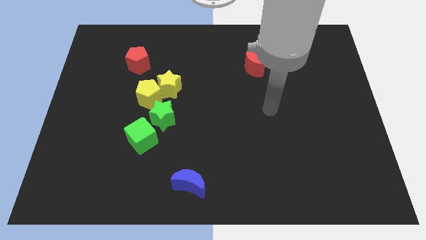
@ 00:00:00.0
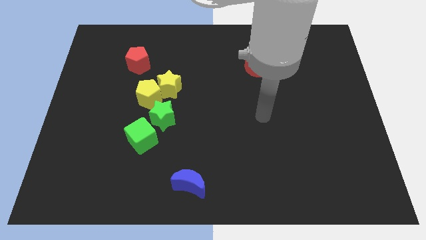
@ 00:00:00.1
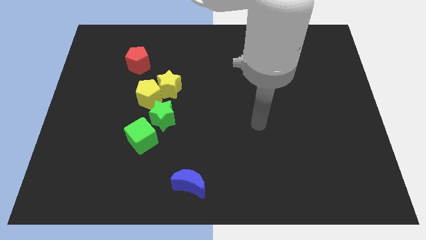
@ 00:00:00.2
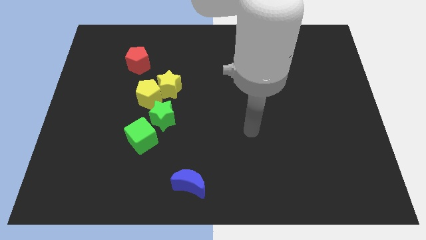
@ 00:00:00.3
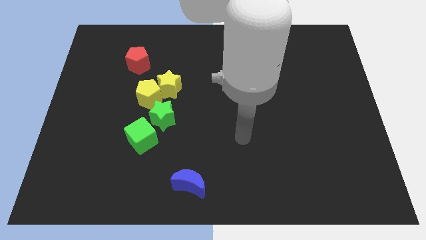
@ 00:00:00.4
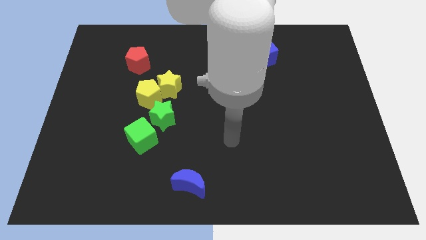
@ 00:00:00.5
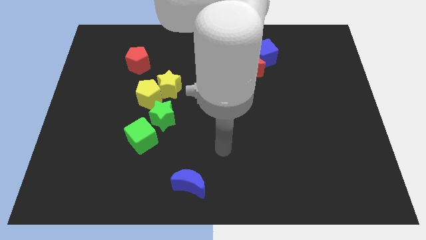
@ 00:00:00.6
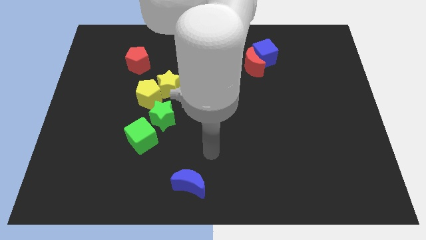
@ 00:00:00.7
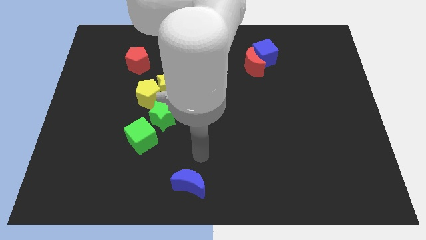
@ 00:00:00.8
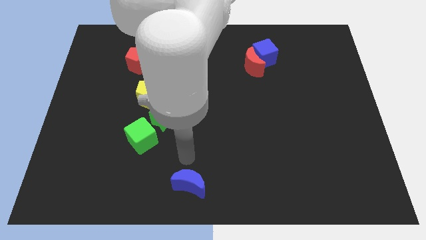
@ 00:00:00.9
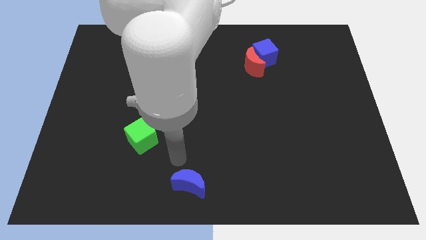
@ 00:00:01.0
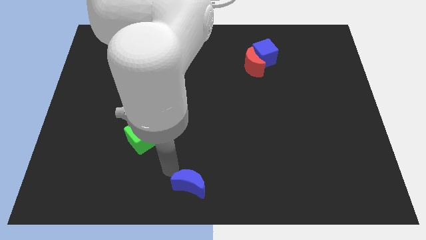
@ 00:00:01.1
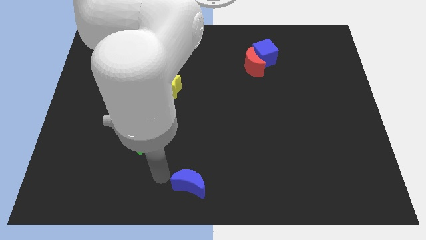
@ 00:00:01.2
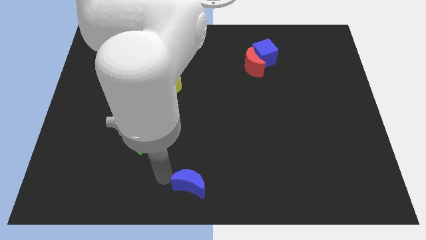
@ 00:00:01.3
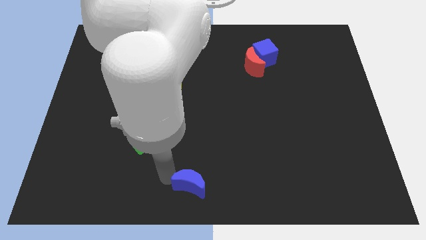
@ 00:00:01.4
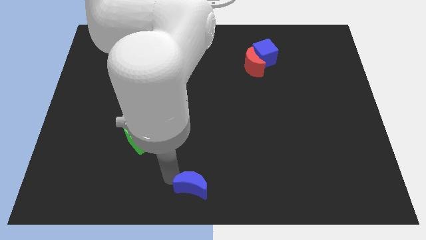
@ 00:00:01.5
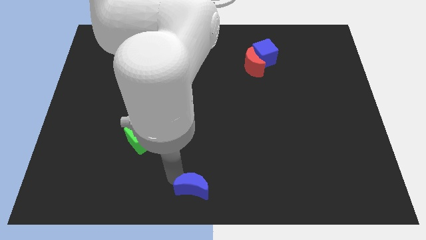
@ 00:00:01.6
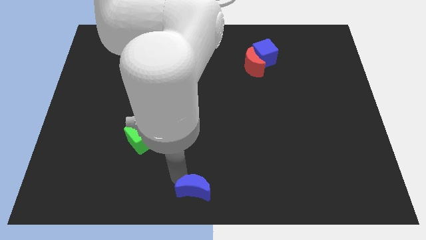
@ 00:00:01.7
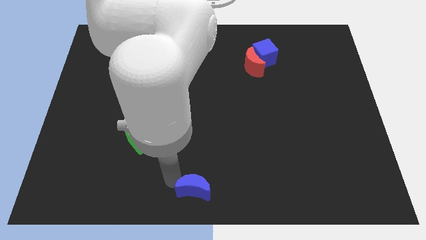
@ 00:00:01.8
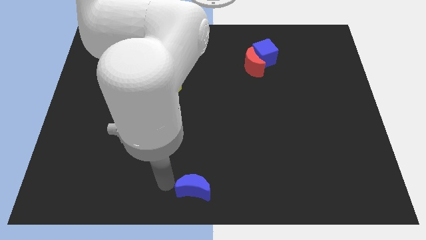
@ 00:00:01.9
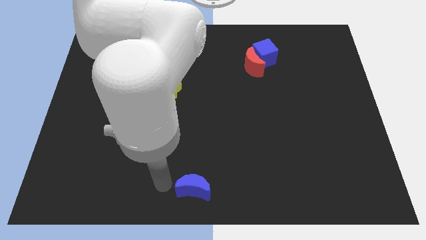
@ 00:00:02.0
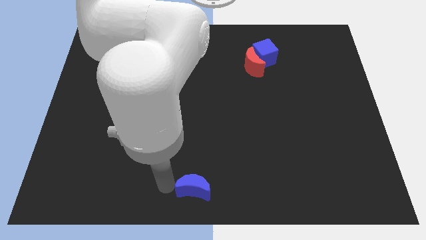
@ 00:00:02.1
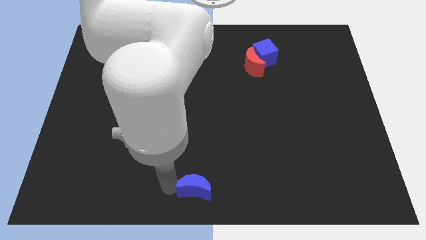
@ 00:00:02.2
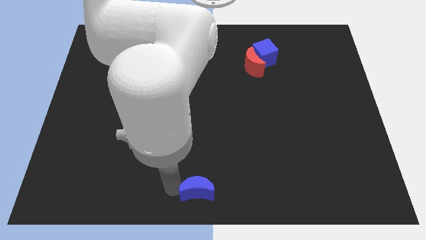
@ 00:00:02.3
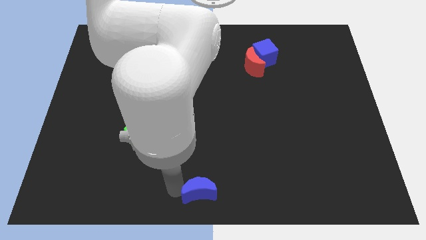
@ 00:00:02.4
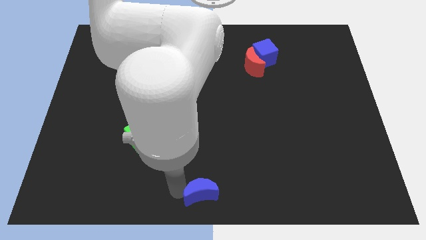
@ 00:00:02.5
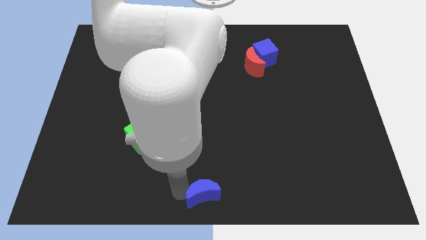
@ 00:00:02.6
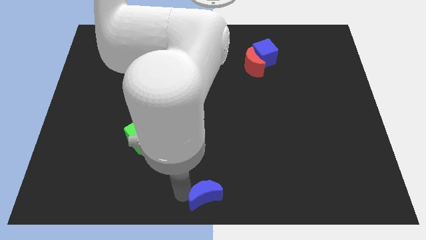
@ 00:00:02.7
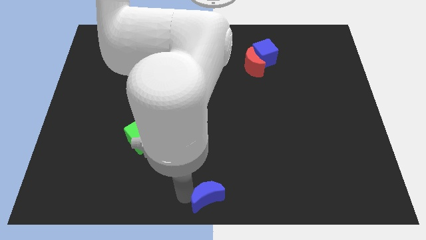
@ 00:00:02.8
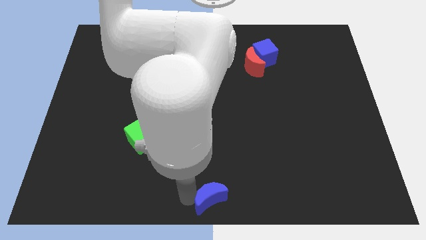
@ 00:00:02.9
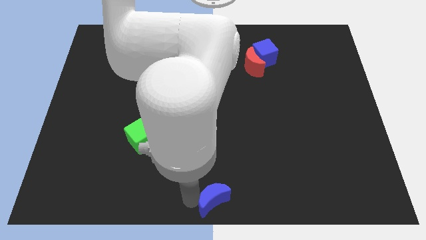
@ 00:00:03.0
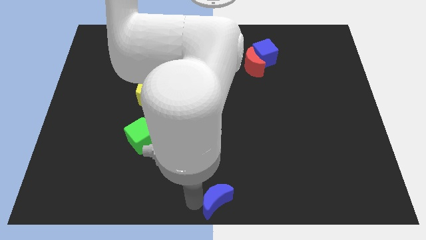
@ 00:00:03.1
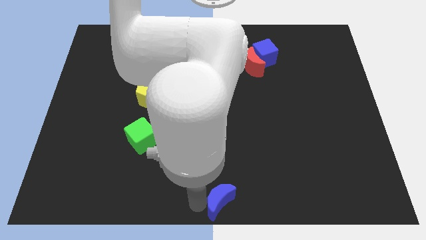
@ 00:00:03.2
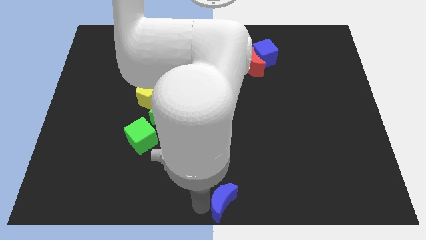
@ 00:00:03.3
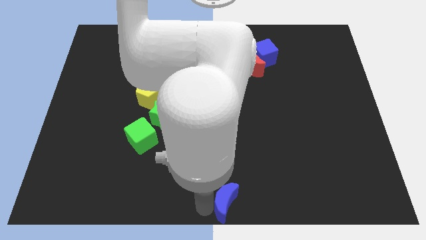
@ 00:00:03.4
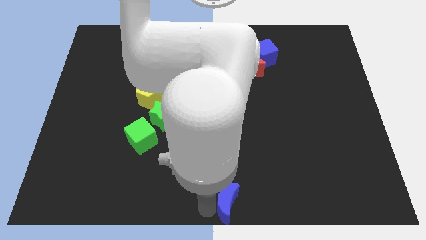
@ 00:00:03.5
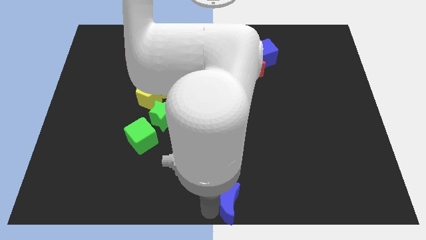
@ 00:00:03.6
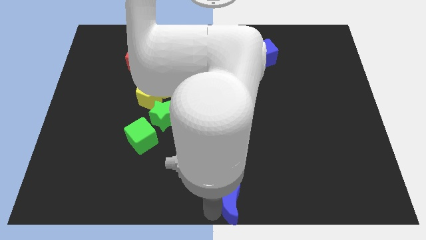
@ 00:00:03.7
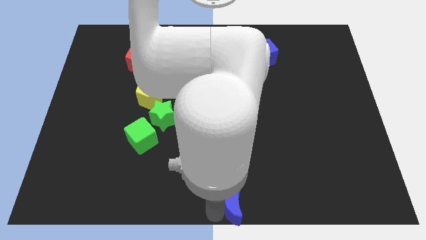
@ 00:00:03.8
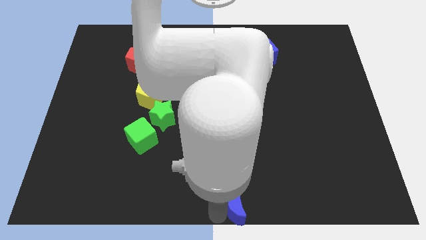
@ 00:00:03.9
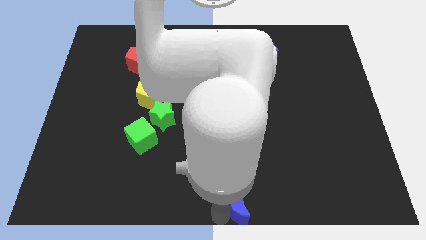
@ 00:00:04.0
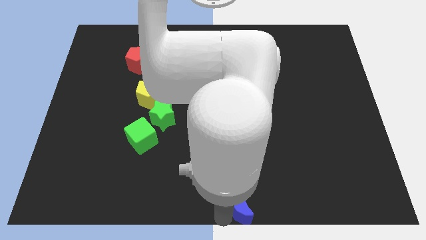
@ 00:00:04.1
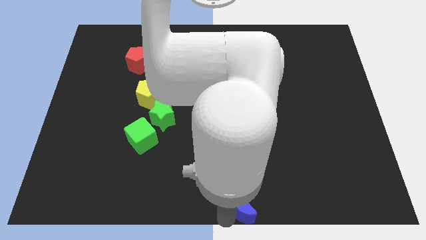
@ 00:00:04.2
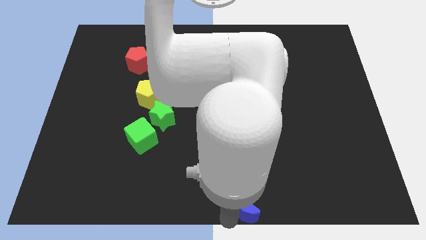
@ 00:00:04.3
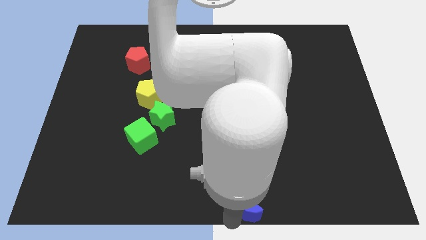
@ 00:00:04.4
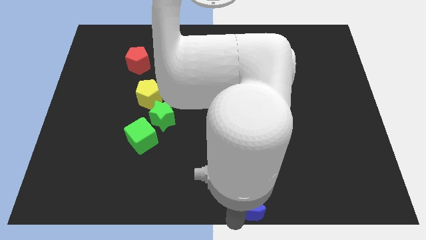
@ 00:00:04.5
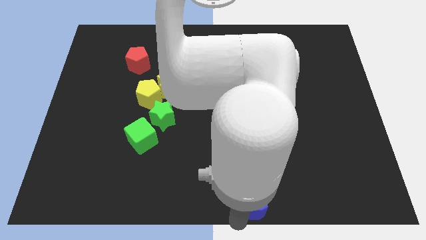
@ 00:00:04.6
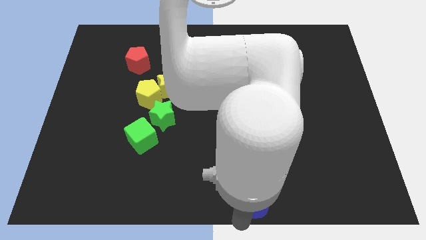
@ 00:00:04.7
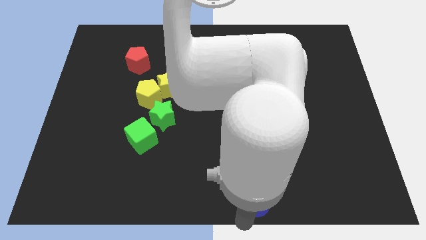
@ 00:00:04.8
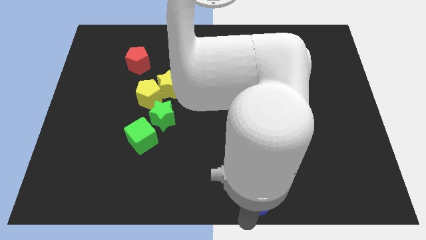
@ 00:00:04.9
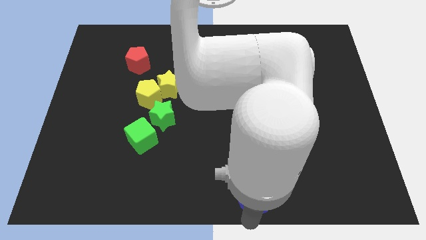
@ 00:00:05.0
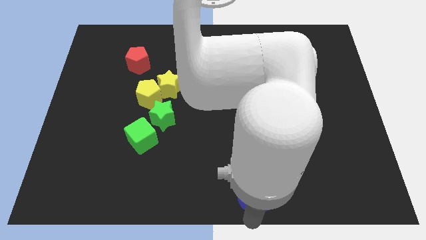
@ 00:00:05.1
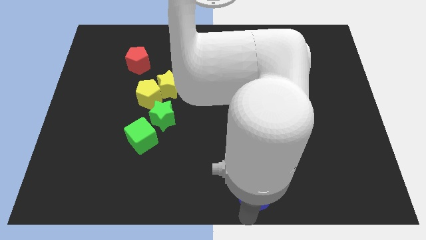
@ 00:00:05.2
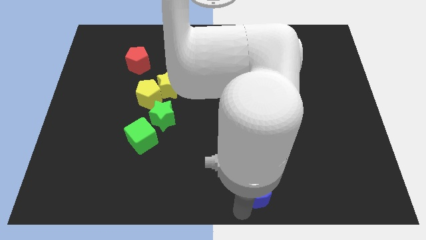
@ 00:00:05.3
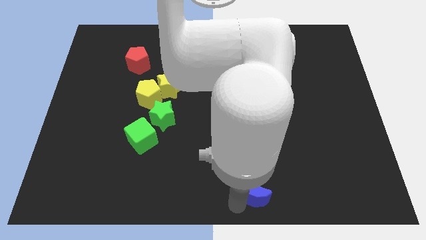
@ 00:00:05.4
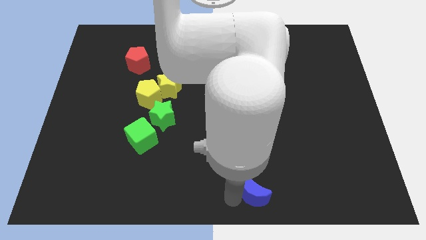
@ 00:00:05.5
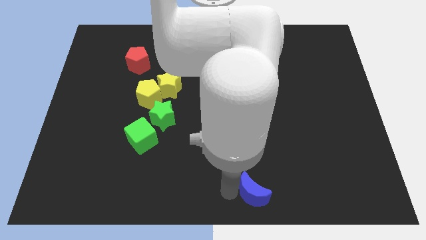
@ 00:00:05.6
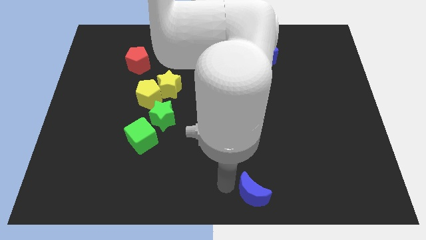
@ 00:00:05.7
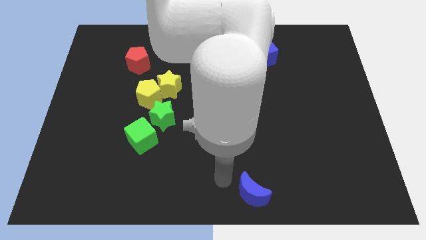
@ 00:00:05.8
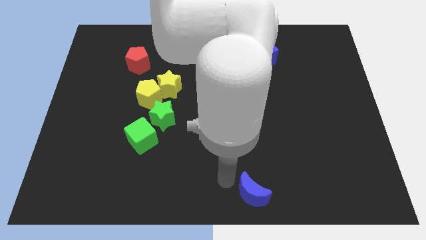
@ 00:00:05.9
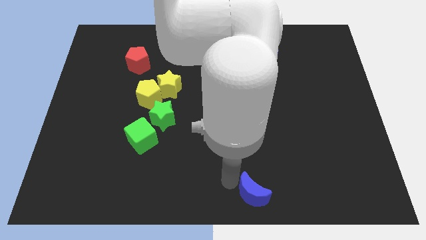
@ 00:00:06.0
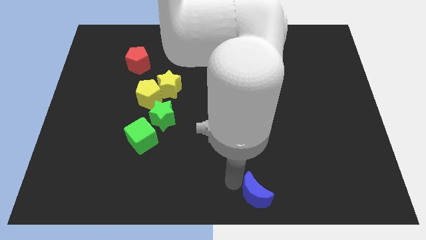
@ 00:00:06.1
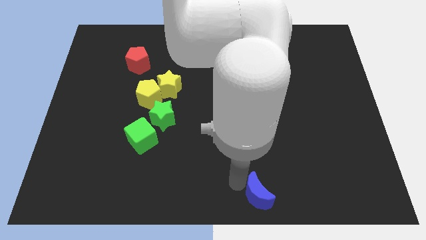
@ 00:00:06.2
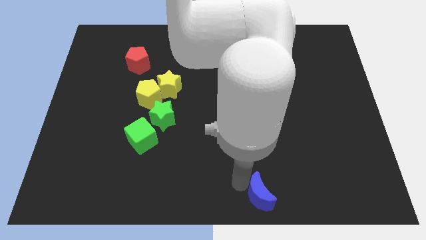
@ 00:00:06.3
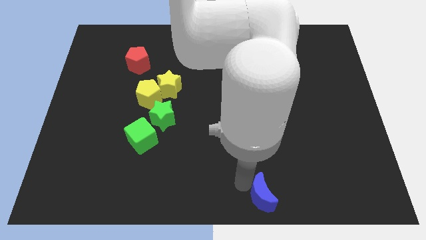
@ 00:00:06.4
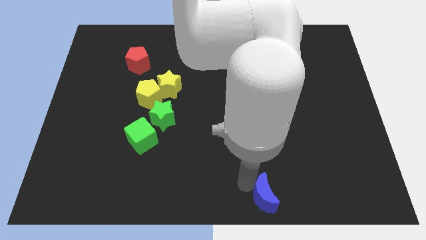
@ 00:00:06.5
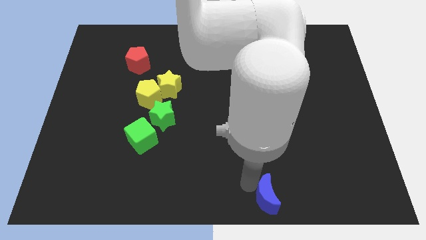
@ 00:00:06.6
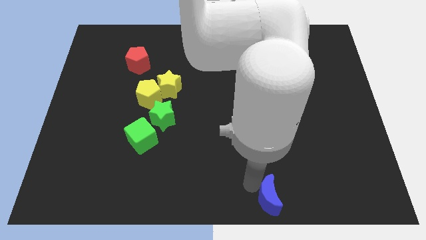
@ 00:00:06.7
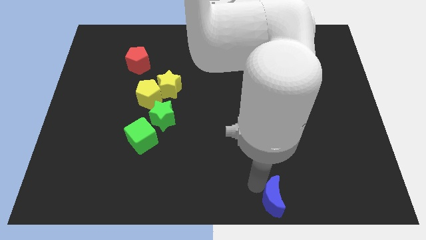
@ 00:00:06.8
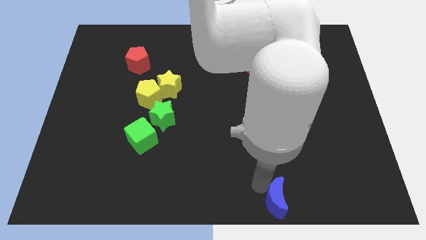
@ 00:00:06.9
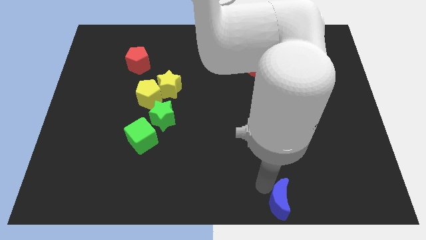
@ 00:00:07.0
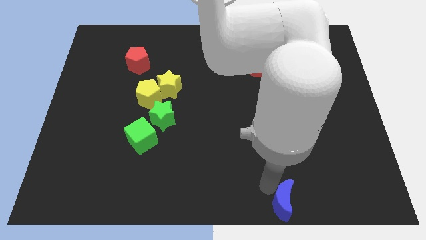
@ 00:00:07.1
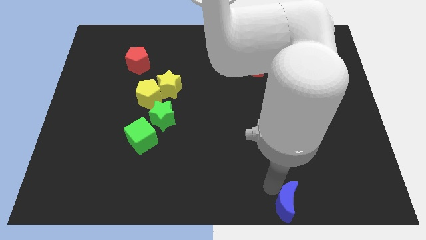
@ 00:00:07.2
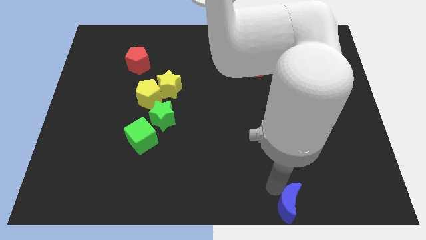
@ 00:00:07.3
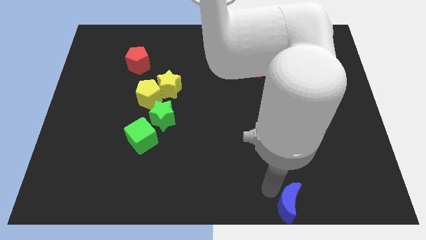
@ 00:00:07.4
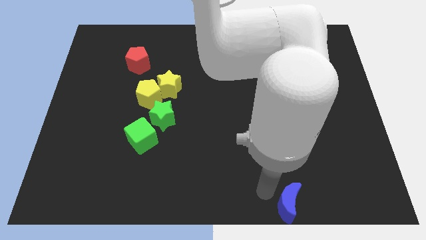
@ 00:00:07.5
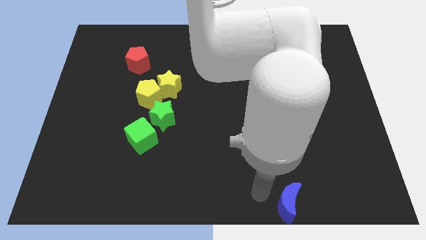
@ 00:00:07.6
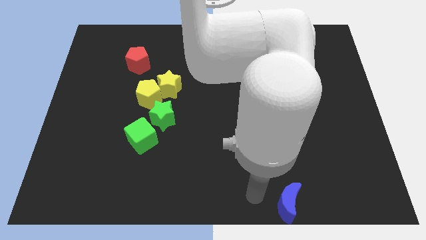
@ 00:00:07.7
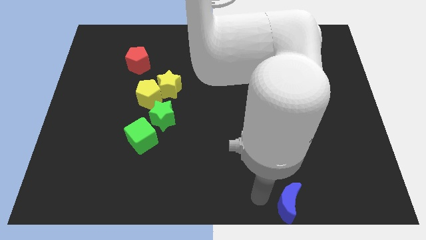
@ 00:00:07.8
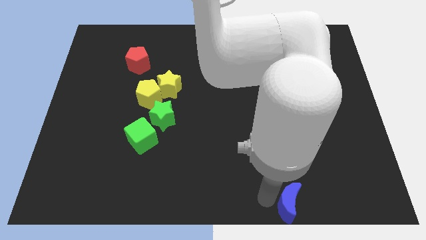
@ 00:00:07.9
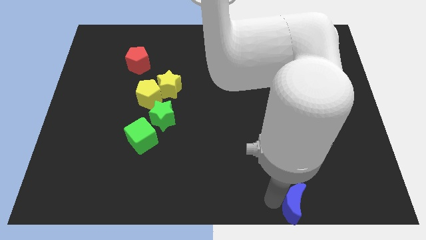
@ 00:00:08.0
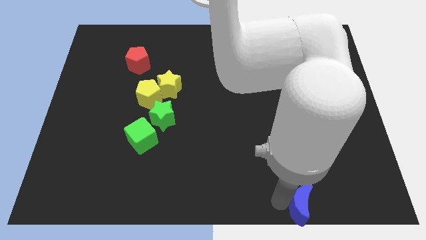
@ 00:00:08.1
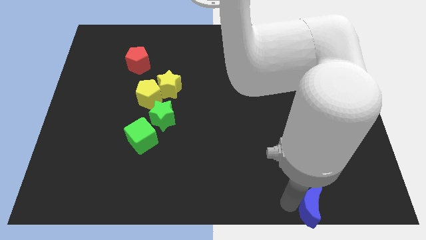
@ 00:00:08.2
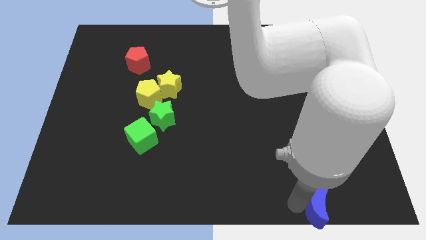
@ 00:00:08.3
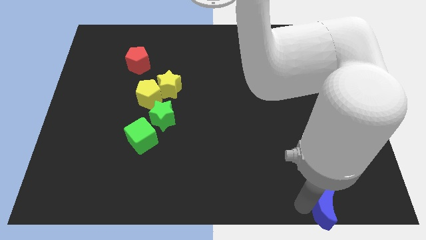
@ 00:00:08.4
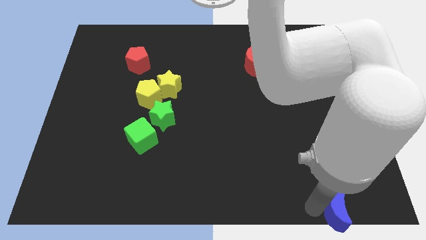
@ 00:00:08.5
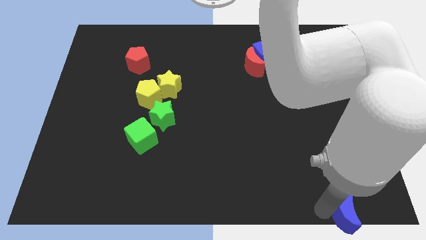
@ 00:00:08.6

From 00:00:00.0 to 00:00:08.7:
push the blue moon to the lower right corner
